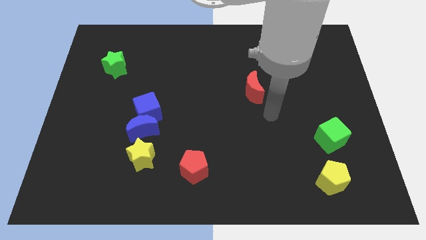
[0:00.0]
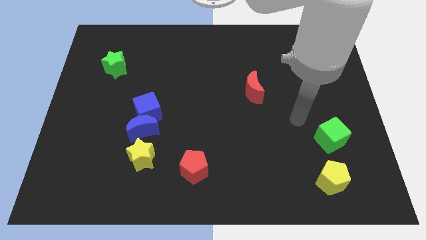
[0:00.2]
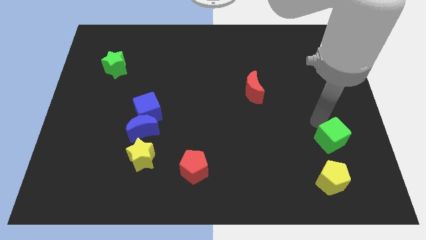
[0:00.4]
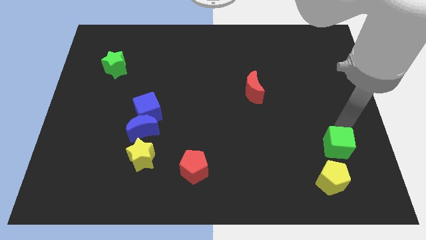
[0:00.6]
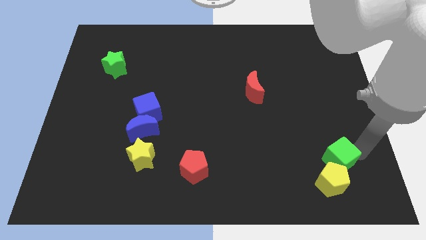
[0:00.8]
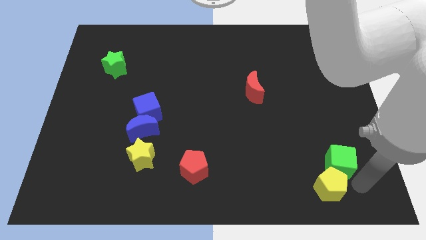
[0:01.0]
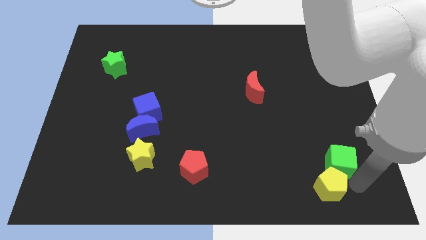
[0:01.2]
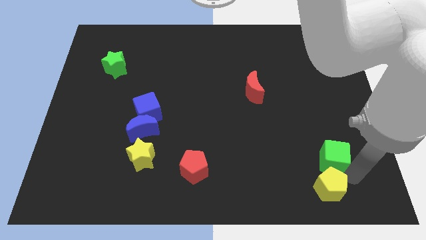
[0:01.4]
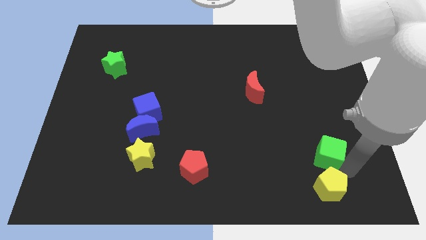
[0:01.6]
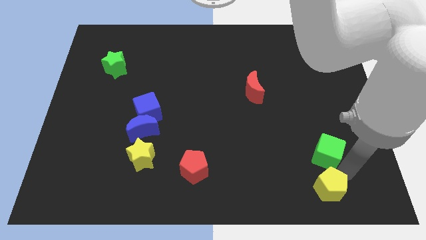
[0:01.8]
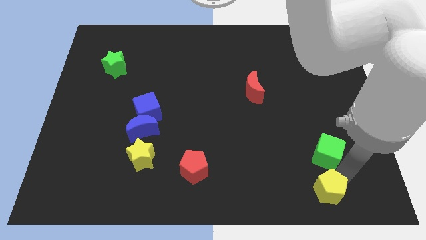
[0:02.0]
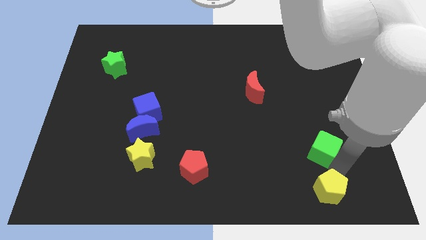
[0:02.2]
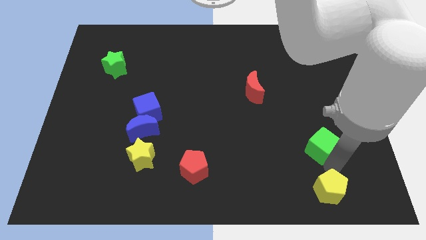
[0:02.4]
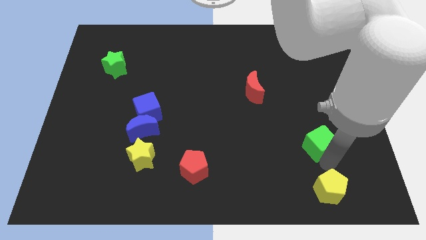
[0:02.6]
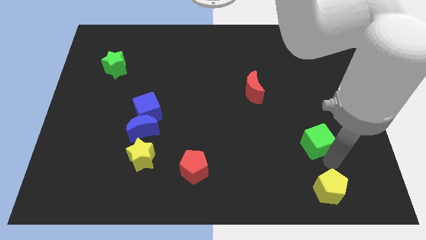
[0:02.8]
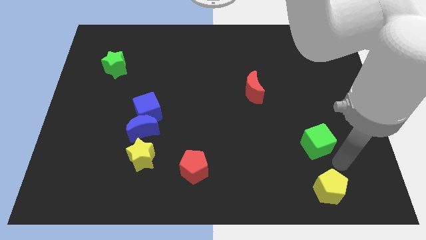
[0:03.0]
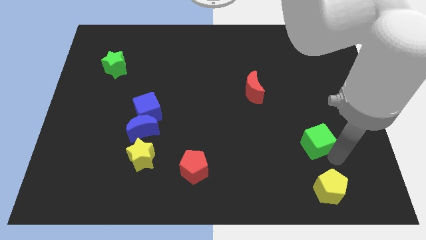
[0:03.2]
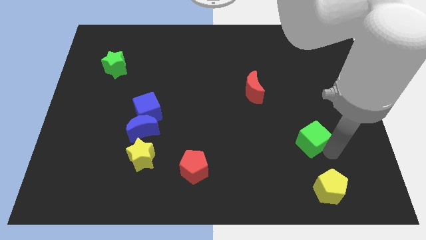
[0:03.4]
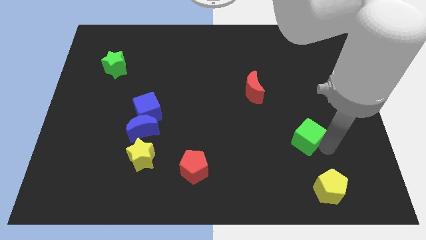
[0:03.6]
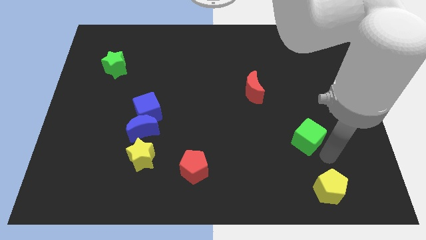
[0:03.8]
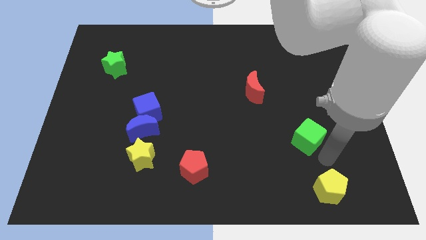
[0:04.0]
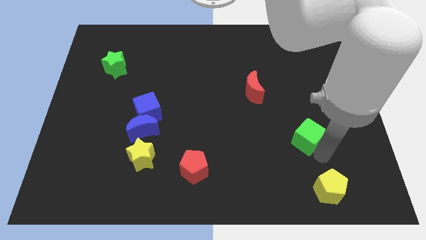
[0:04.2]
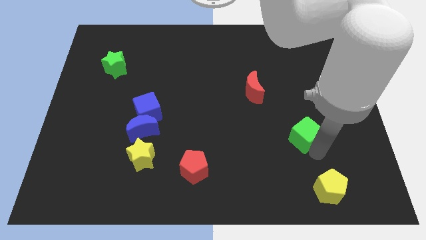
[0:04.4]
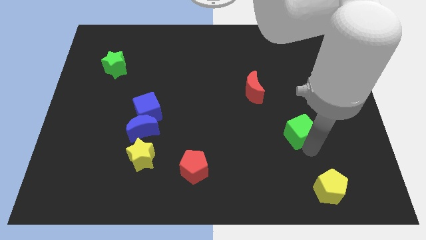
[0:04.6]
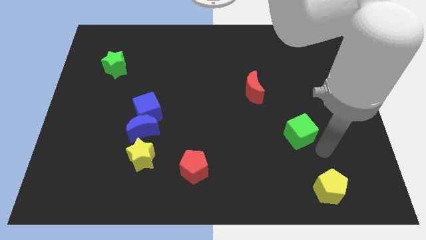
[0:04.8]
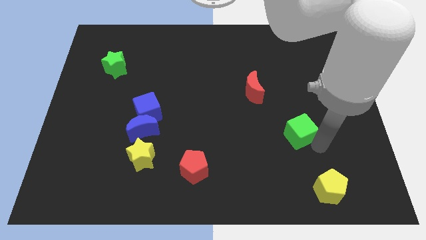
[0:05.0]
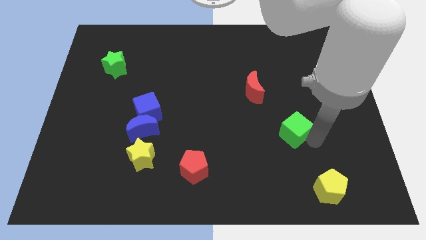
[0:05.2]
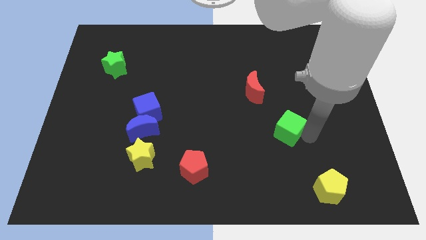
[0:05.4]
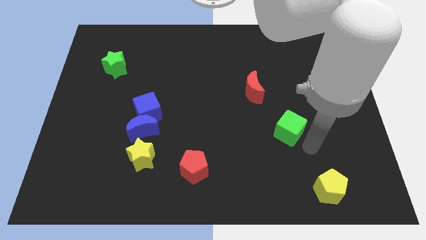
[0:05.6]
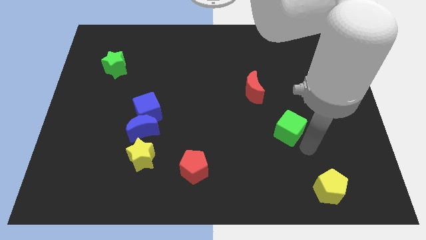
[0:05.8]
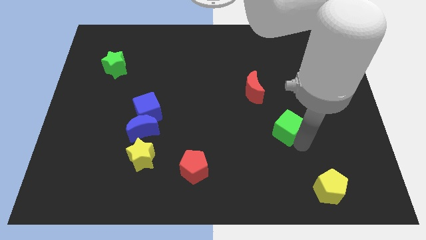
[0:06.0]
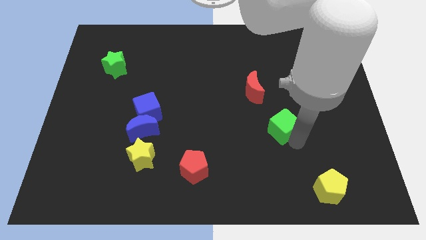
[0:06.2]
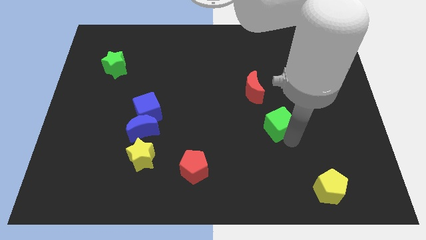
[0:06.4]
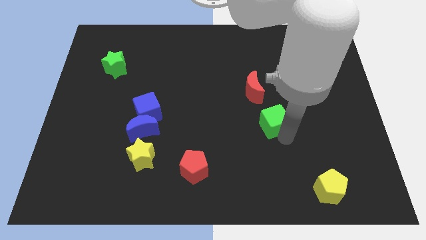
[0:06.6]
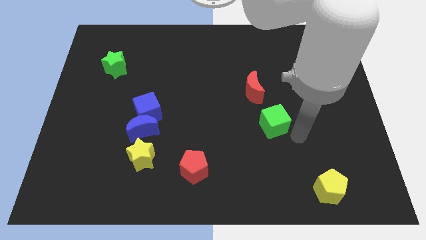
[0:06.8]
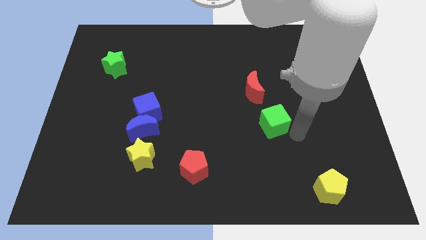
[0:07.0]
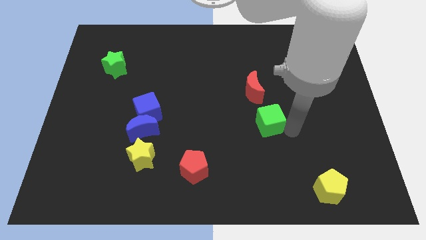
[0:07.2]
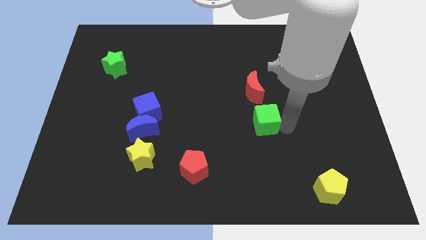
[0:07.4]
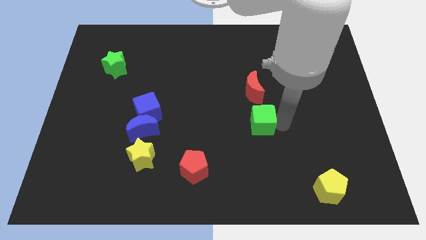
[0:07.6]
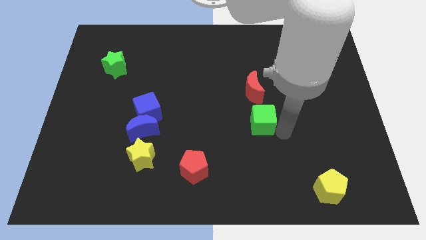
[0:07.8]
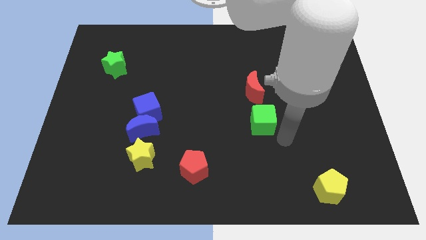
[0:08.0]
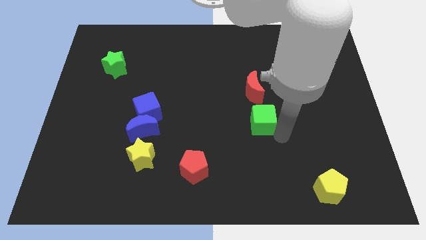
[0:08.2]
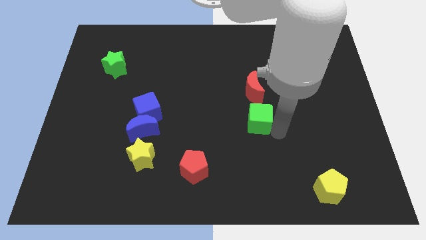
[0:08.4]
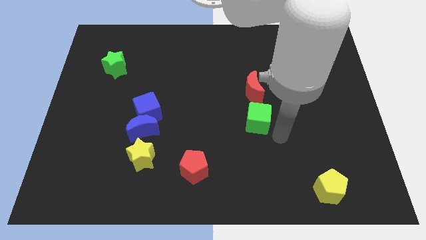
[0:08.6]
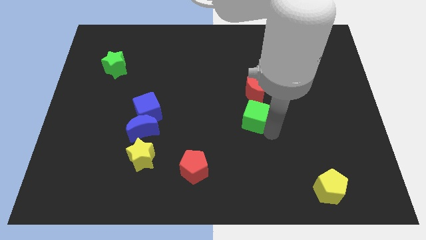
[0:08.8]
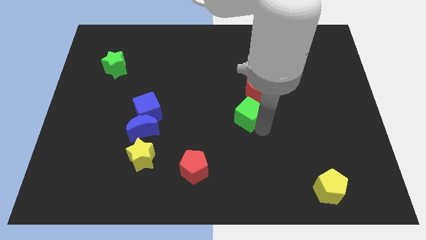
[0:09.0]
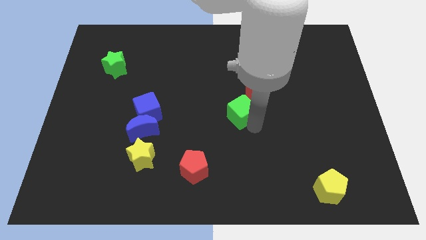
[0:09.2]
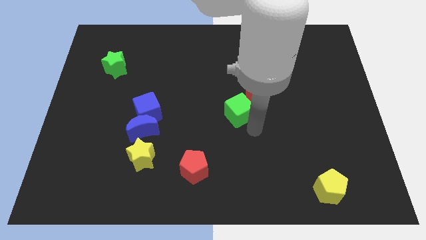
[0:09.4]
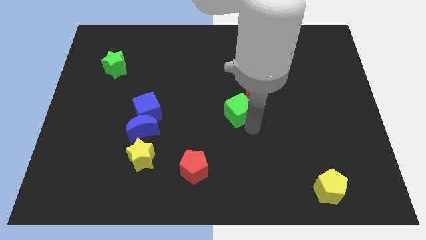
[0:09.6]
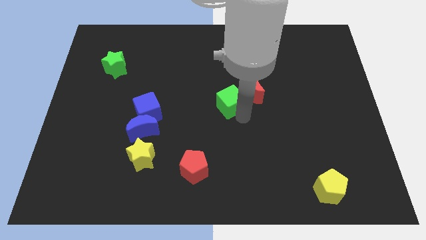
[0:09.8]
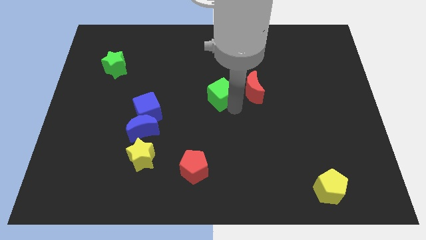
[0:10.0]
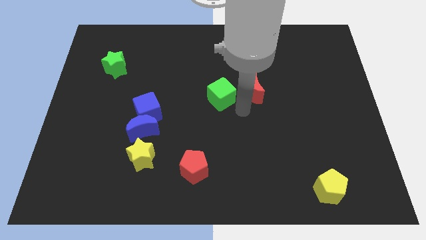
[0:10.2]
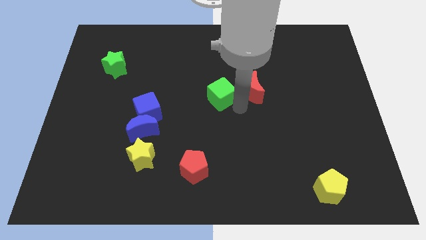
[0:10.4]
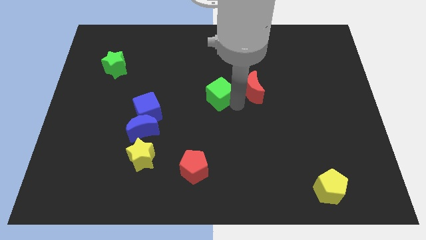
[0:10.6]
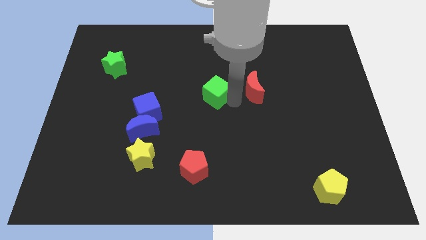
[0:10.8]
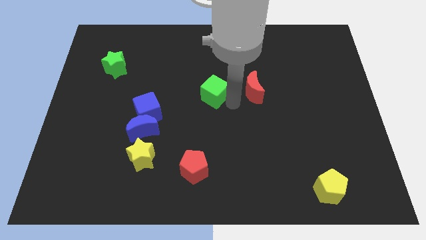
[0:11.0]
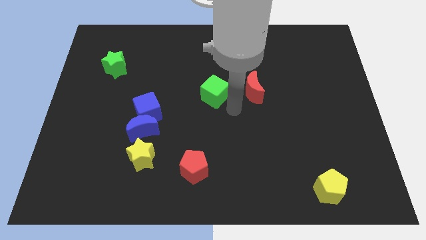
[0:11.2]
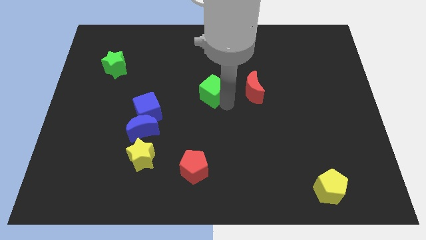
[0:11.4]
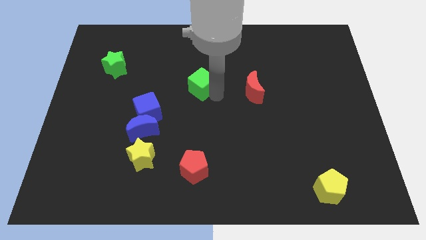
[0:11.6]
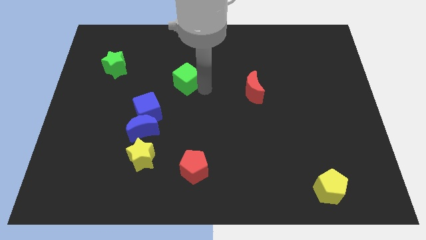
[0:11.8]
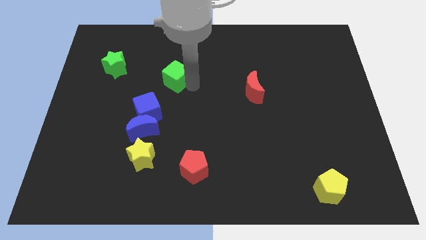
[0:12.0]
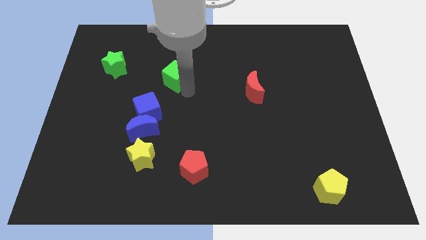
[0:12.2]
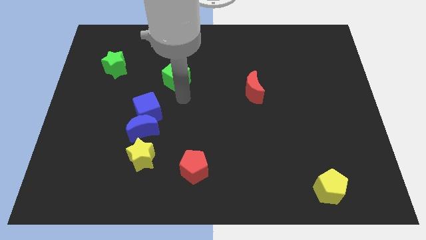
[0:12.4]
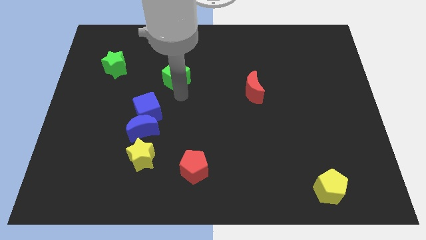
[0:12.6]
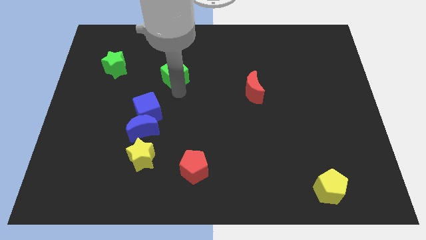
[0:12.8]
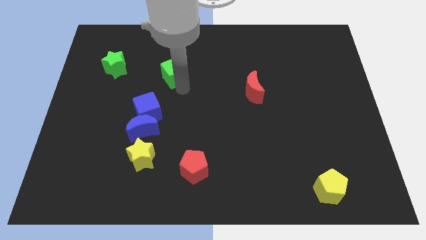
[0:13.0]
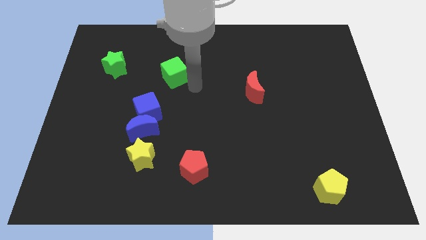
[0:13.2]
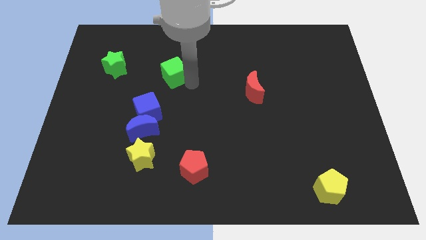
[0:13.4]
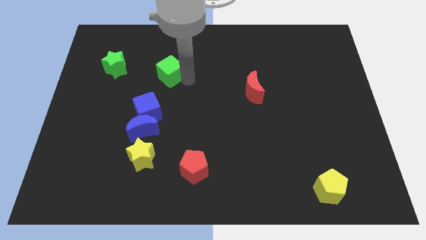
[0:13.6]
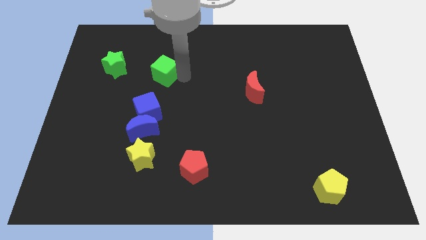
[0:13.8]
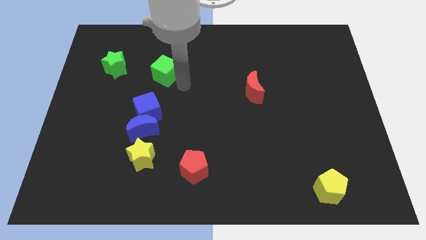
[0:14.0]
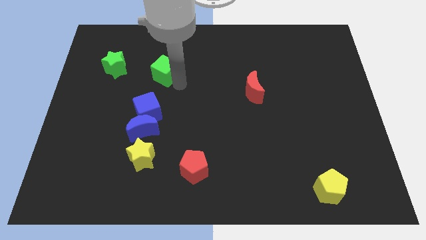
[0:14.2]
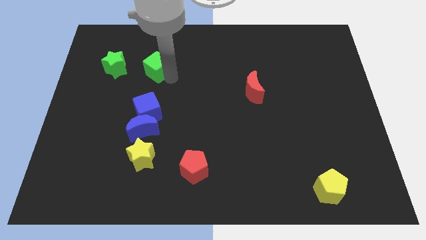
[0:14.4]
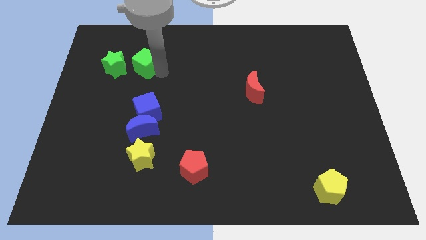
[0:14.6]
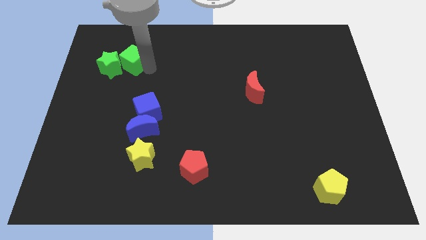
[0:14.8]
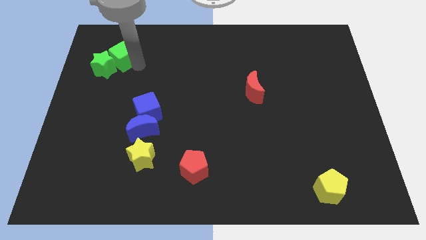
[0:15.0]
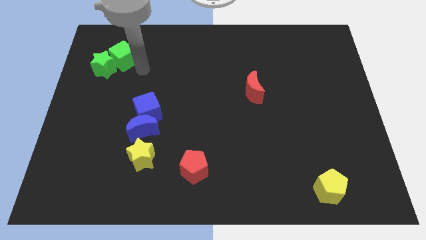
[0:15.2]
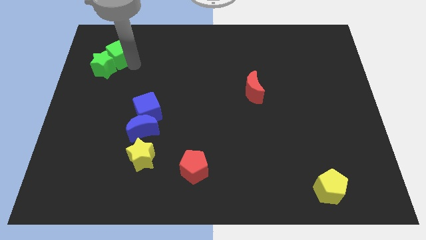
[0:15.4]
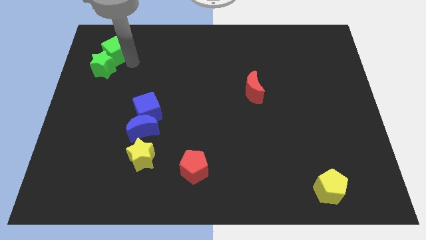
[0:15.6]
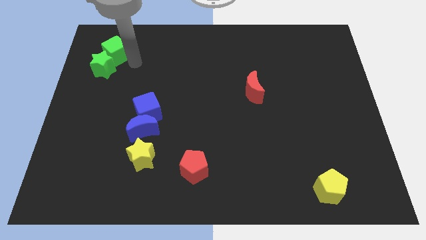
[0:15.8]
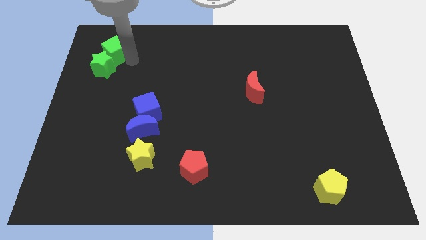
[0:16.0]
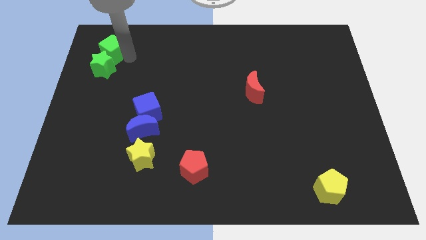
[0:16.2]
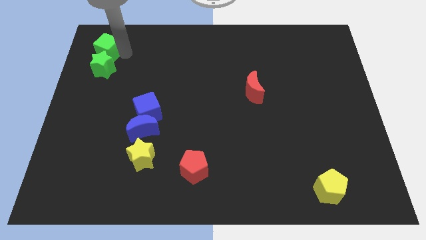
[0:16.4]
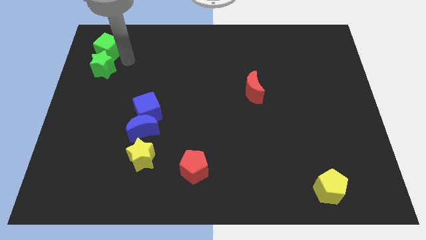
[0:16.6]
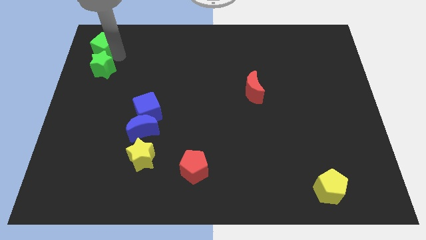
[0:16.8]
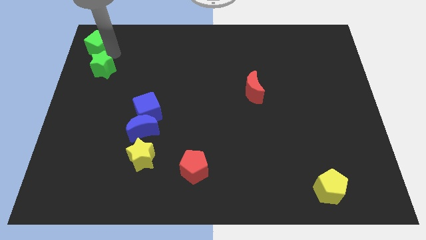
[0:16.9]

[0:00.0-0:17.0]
push the green cube to the top left corner
